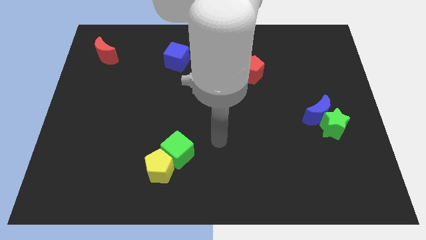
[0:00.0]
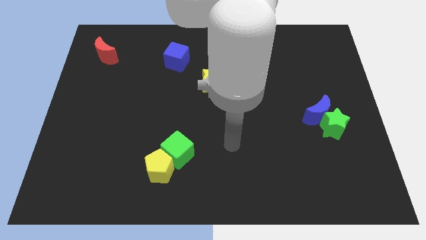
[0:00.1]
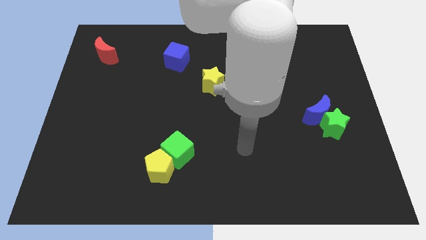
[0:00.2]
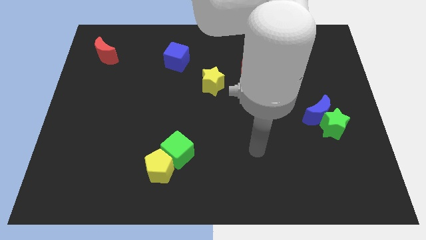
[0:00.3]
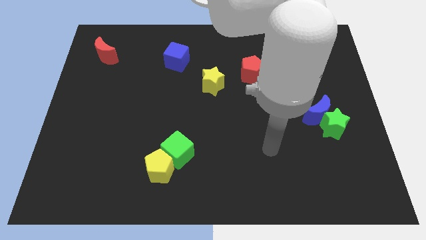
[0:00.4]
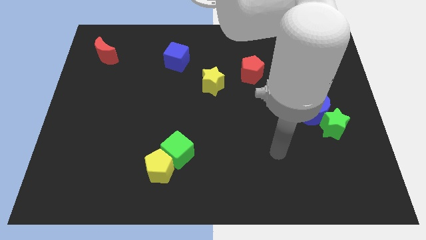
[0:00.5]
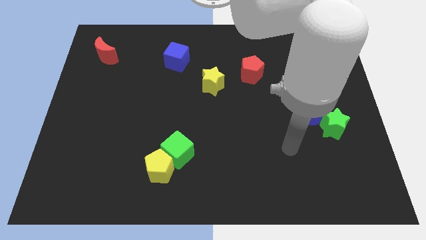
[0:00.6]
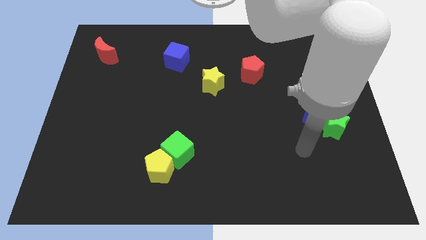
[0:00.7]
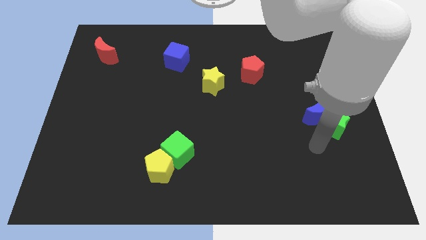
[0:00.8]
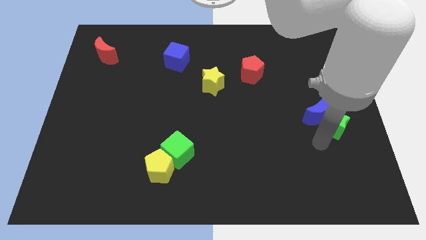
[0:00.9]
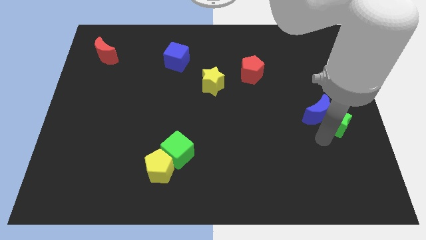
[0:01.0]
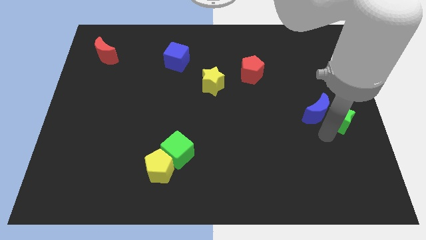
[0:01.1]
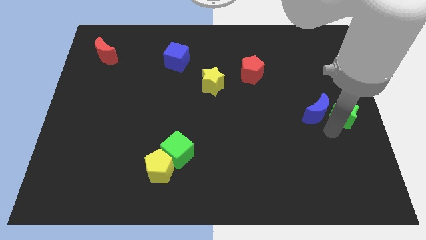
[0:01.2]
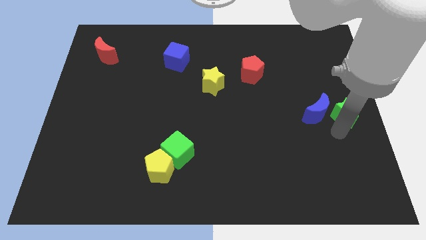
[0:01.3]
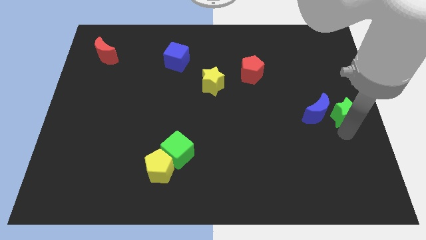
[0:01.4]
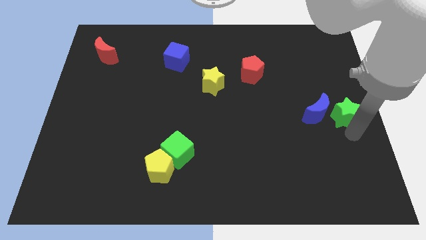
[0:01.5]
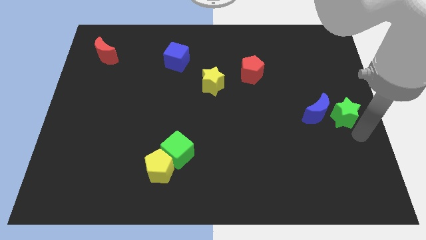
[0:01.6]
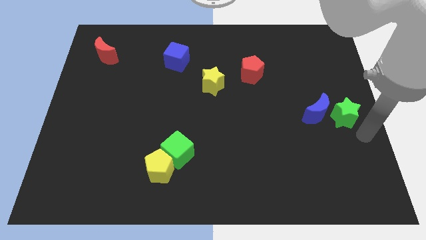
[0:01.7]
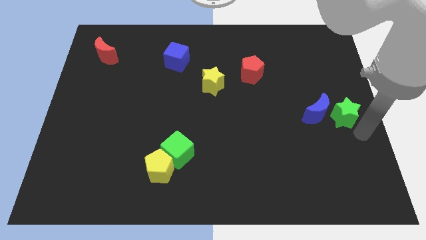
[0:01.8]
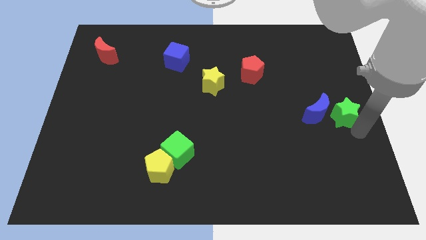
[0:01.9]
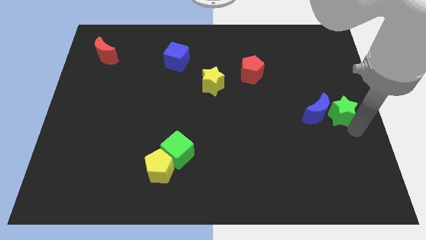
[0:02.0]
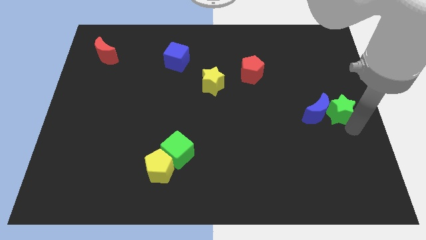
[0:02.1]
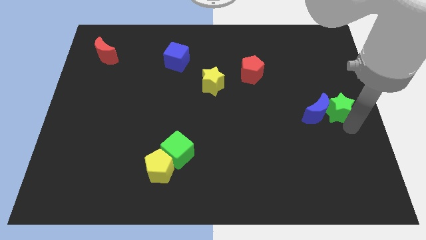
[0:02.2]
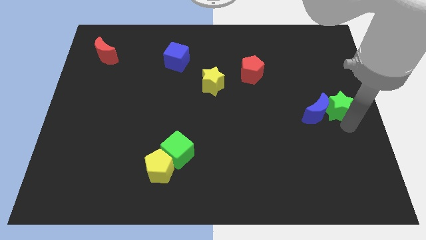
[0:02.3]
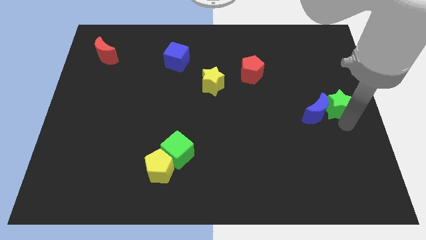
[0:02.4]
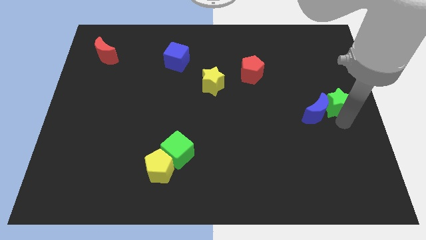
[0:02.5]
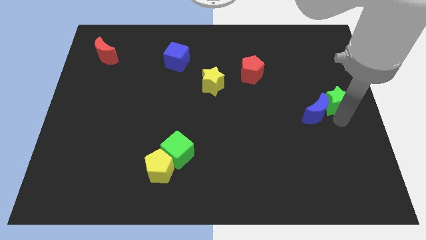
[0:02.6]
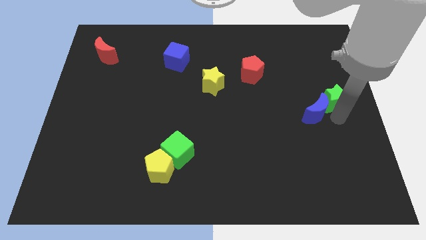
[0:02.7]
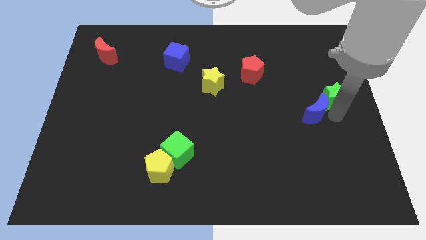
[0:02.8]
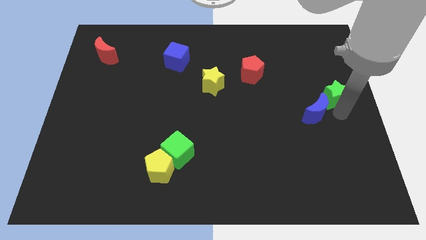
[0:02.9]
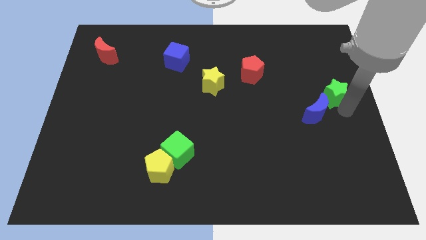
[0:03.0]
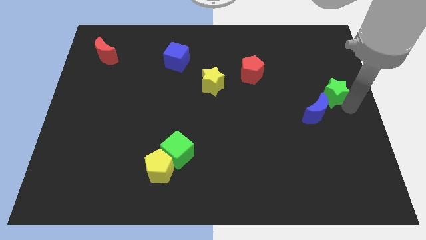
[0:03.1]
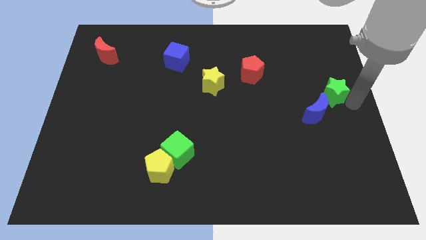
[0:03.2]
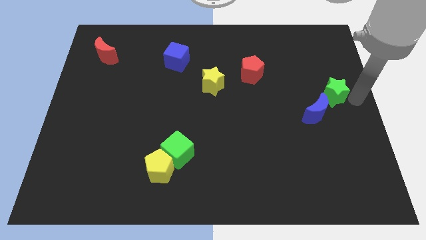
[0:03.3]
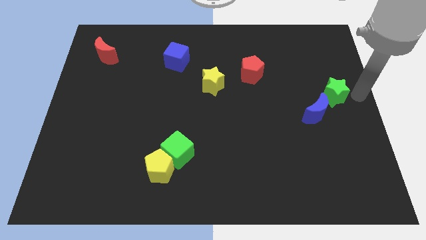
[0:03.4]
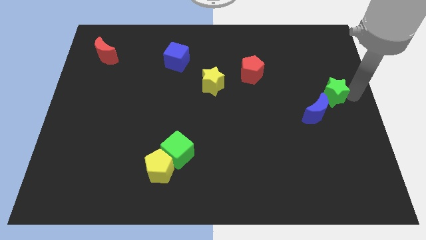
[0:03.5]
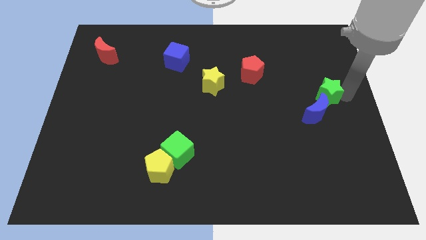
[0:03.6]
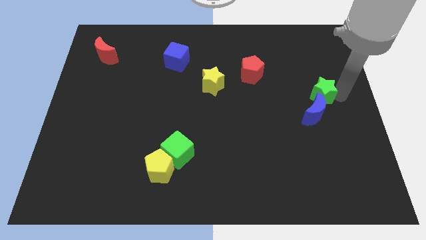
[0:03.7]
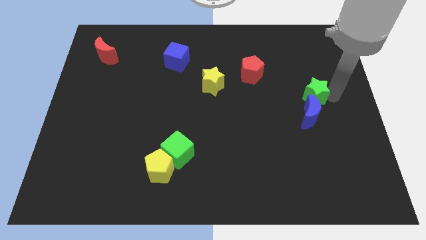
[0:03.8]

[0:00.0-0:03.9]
move the green star diagonally upwards and to the left somewhat

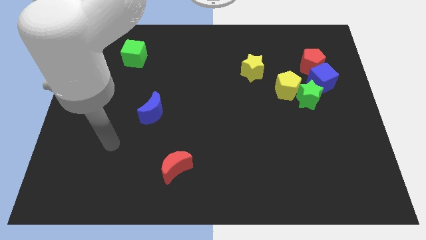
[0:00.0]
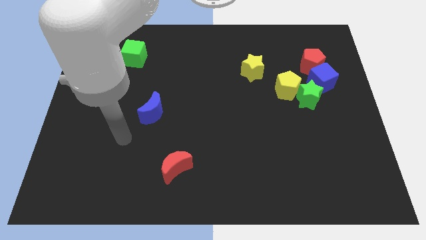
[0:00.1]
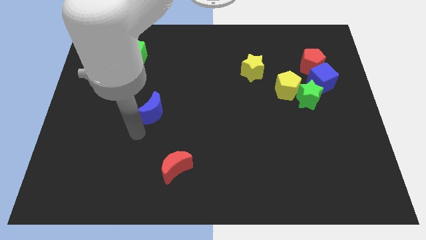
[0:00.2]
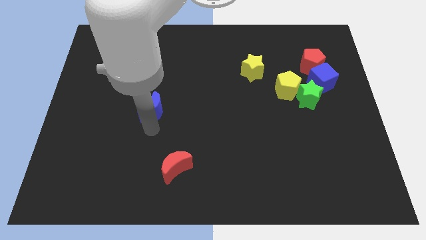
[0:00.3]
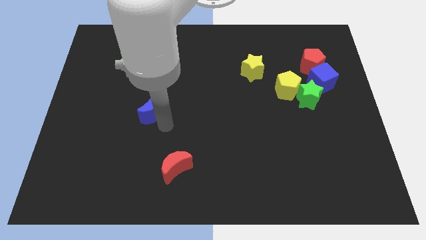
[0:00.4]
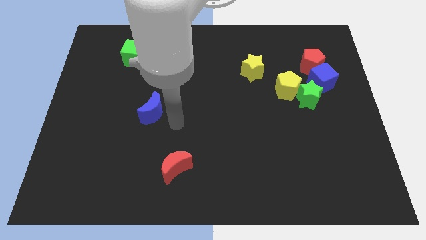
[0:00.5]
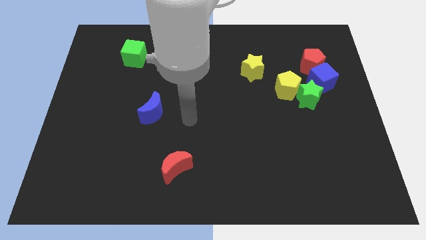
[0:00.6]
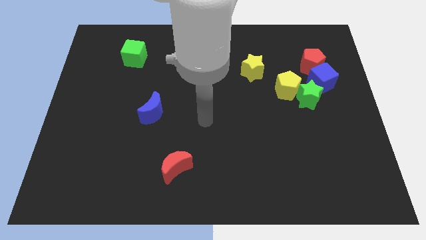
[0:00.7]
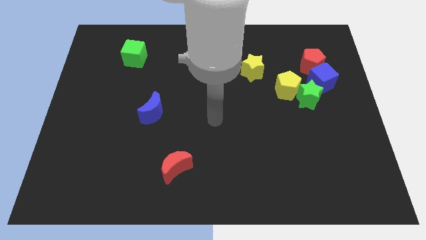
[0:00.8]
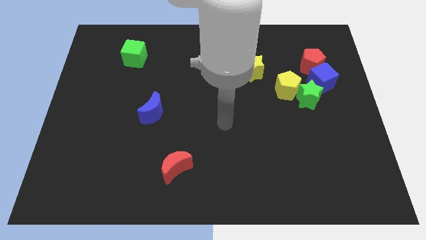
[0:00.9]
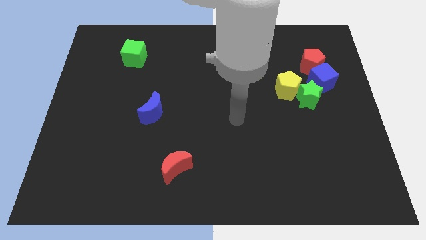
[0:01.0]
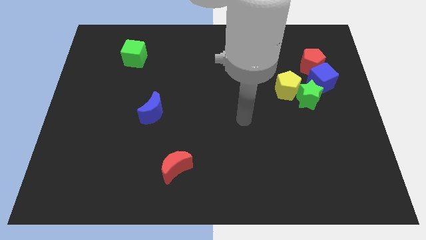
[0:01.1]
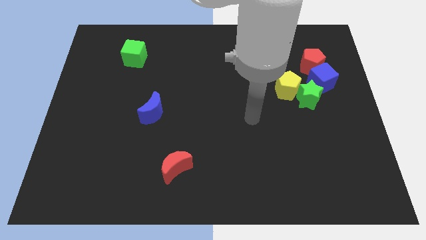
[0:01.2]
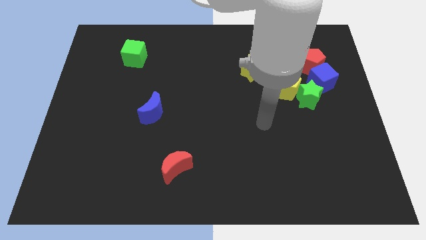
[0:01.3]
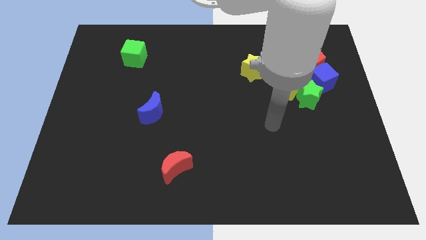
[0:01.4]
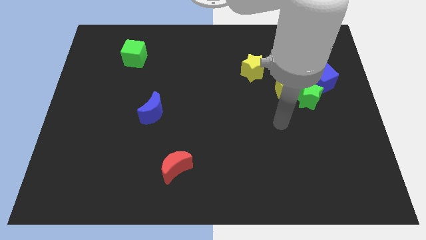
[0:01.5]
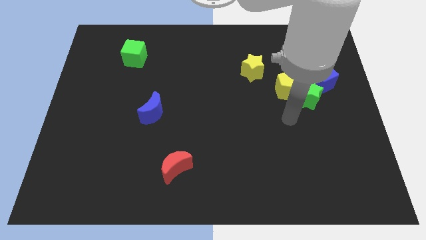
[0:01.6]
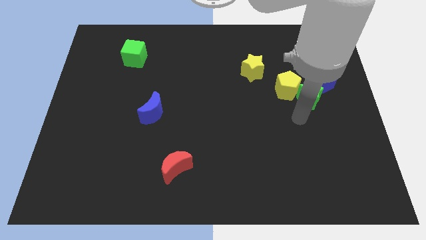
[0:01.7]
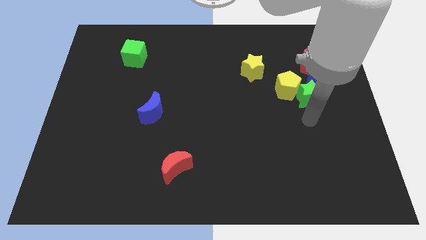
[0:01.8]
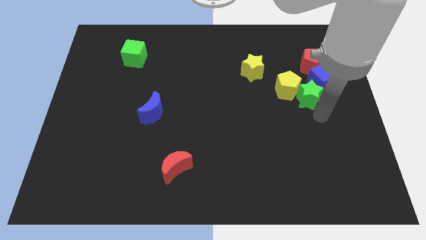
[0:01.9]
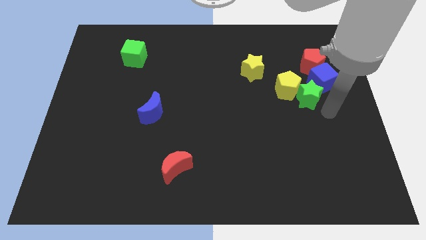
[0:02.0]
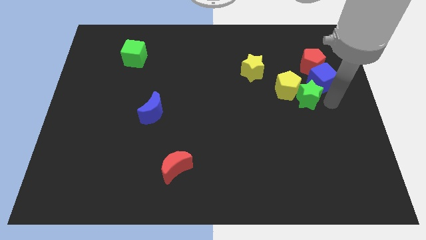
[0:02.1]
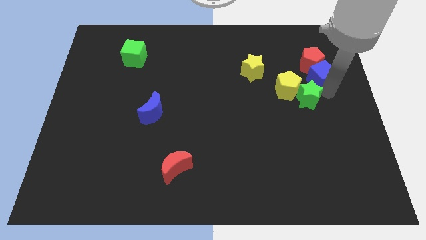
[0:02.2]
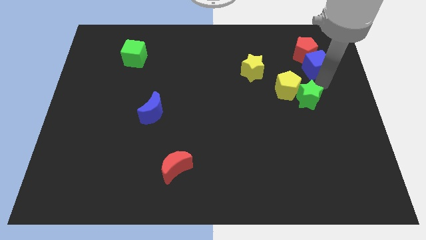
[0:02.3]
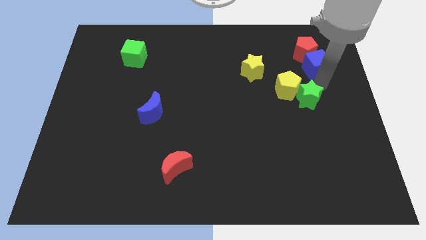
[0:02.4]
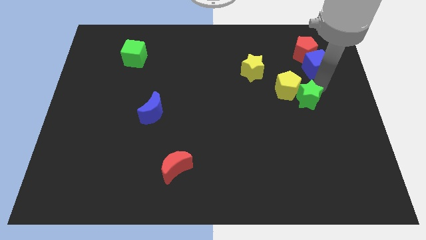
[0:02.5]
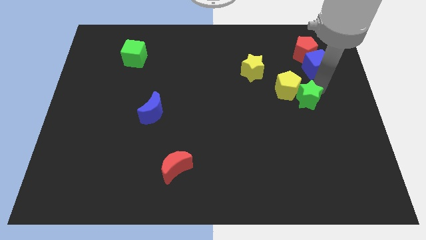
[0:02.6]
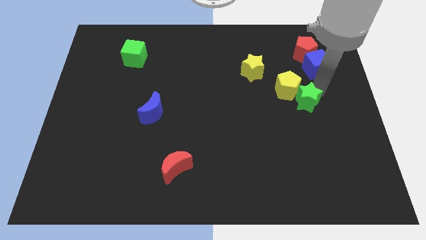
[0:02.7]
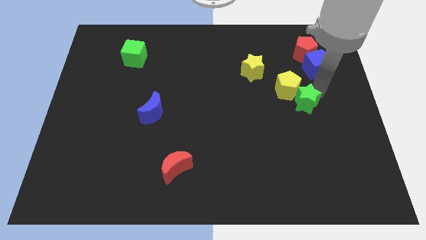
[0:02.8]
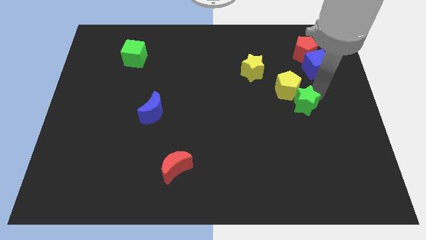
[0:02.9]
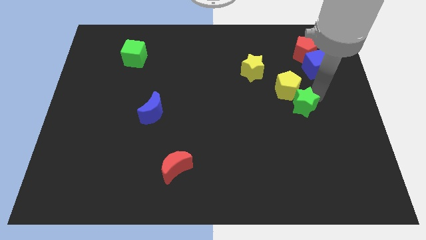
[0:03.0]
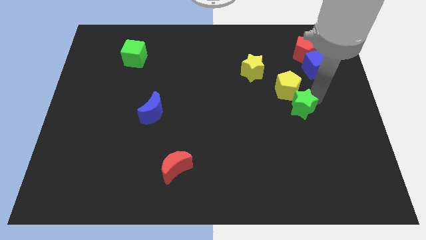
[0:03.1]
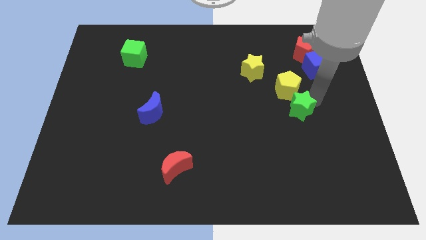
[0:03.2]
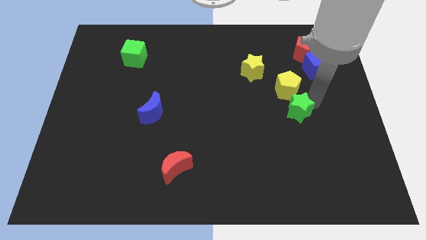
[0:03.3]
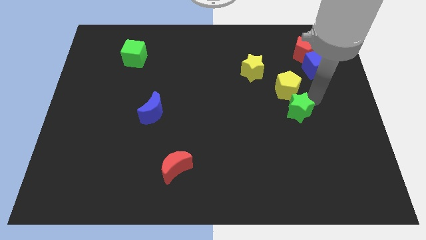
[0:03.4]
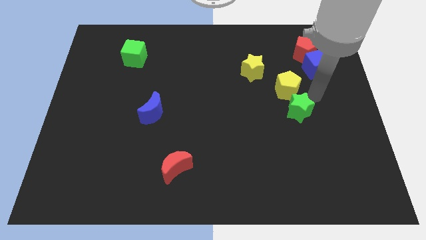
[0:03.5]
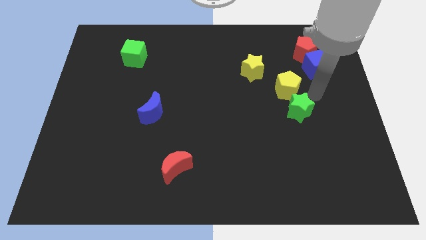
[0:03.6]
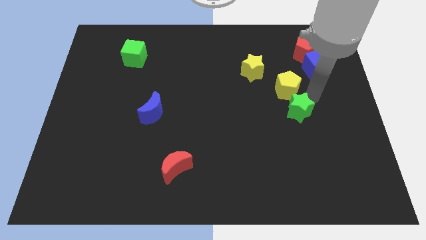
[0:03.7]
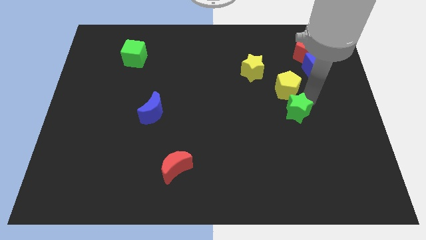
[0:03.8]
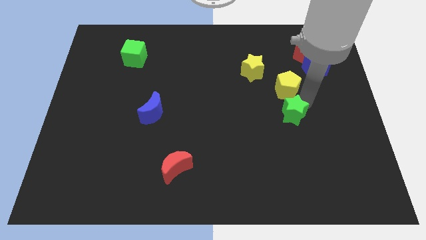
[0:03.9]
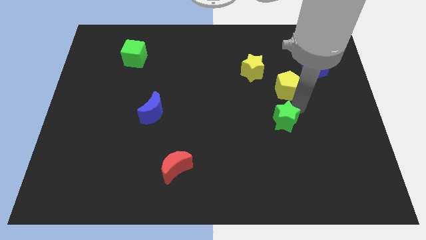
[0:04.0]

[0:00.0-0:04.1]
slide the green star a little bit diagonally downwards and left

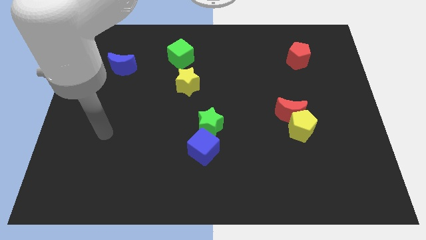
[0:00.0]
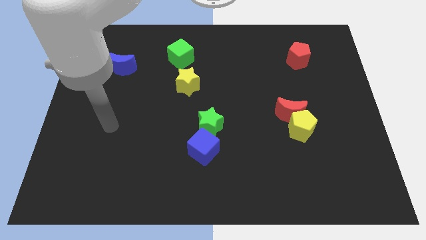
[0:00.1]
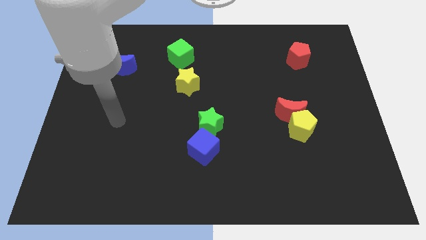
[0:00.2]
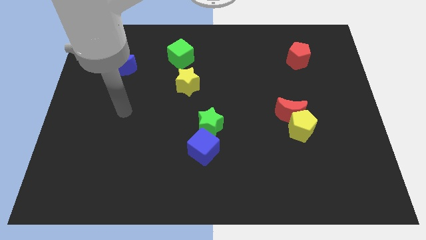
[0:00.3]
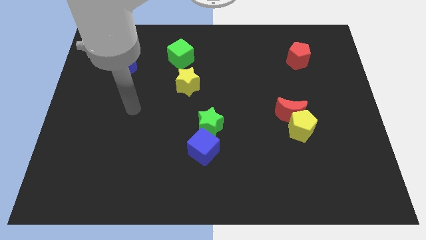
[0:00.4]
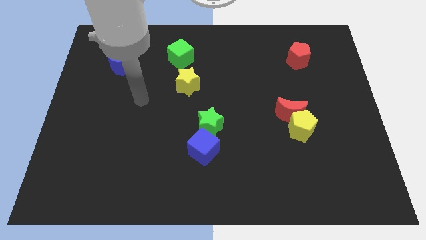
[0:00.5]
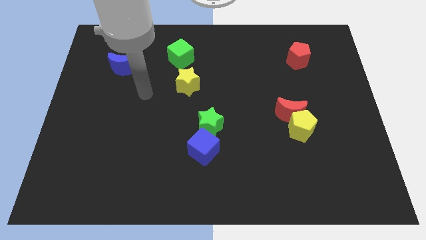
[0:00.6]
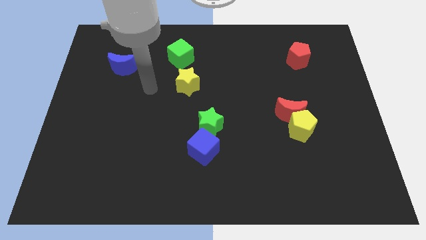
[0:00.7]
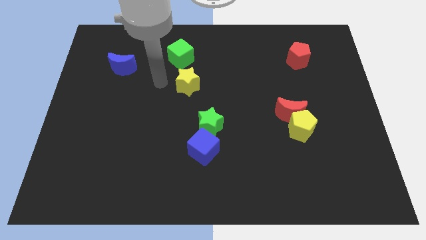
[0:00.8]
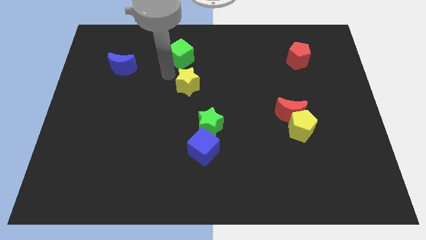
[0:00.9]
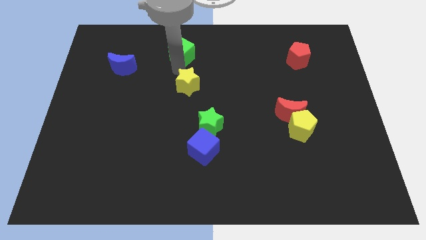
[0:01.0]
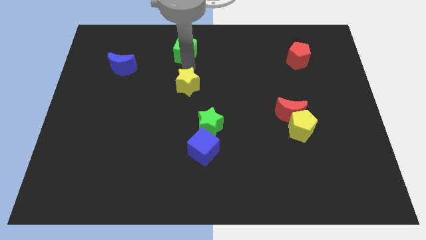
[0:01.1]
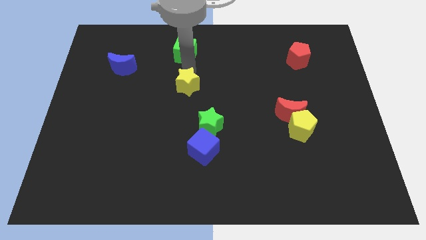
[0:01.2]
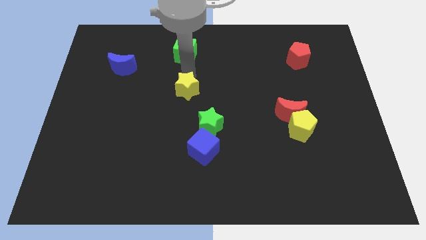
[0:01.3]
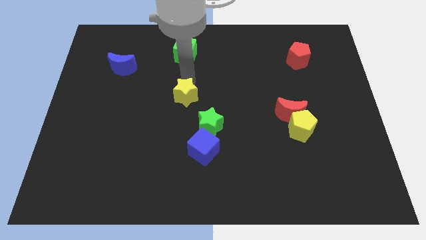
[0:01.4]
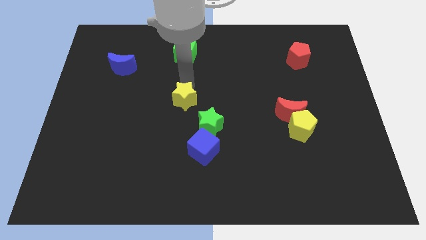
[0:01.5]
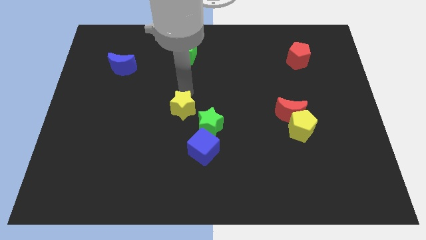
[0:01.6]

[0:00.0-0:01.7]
slide the yellow star down a little bit
